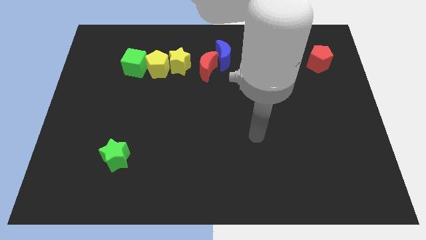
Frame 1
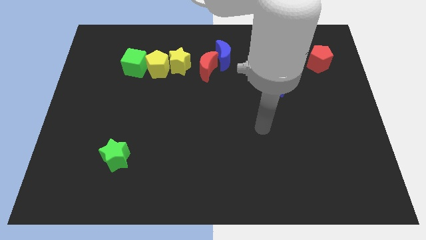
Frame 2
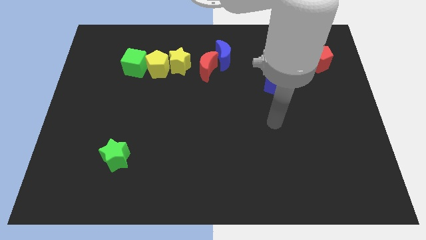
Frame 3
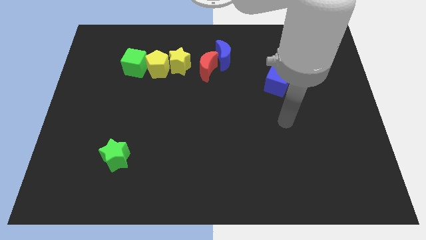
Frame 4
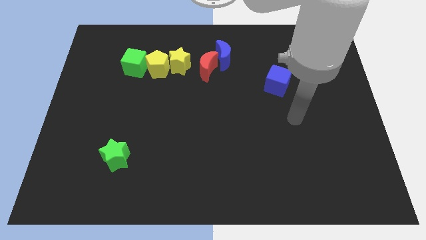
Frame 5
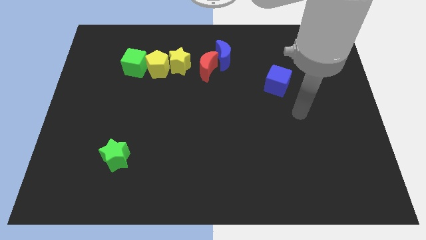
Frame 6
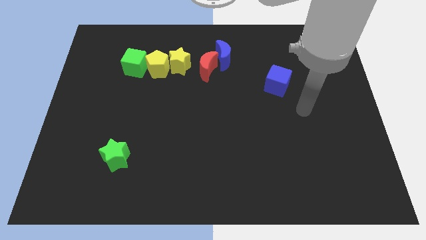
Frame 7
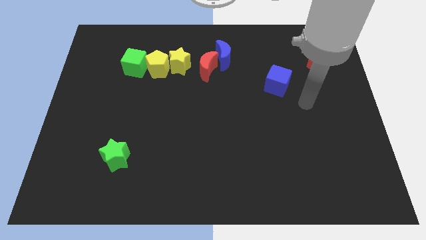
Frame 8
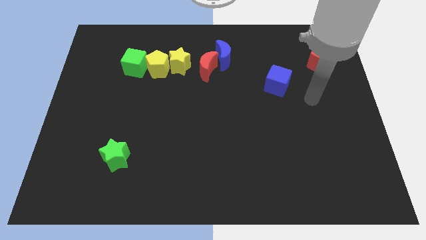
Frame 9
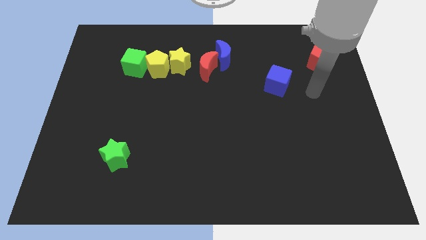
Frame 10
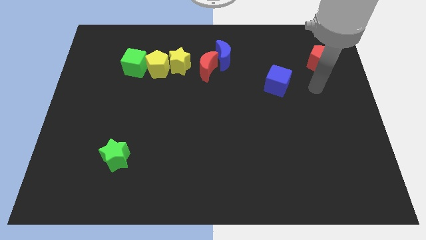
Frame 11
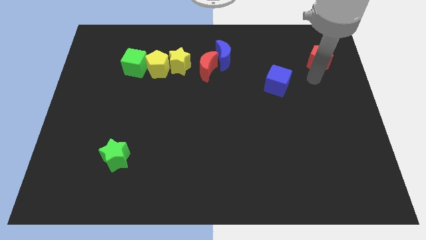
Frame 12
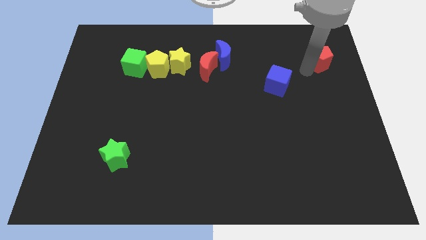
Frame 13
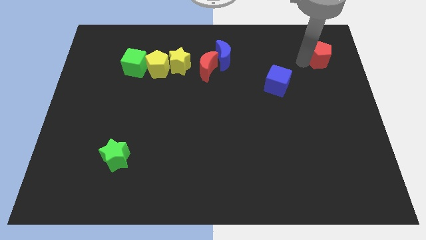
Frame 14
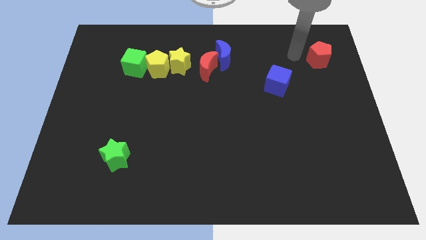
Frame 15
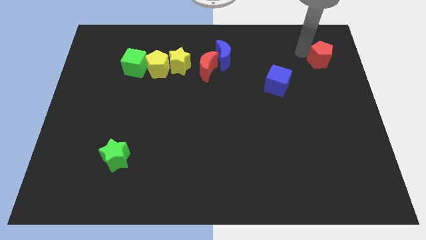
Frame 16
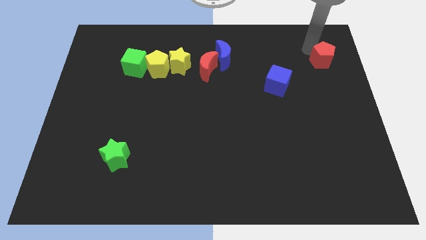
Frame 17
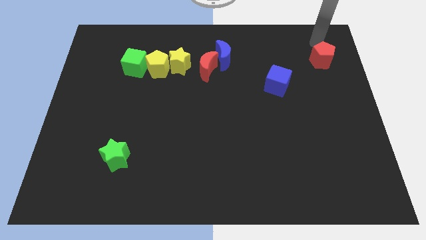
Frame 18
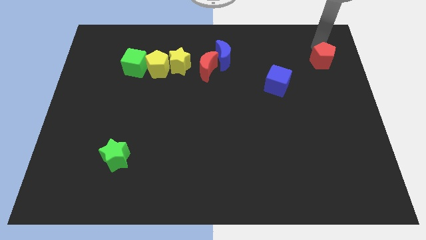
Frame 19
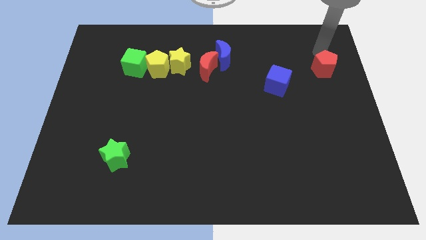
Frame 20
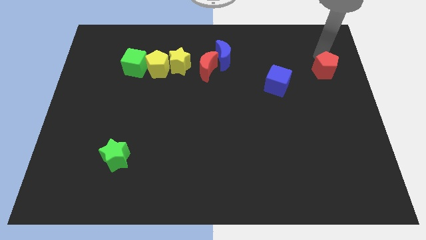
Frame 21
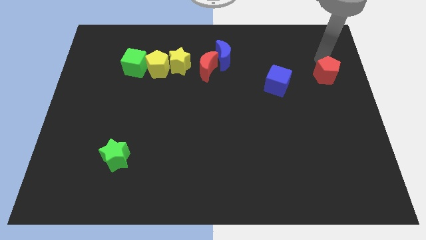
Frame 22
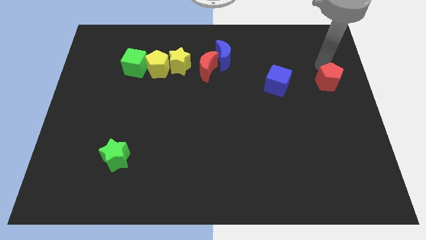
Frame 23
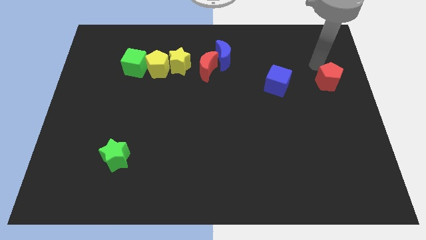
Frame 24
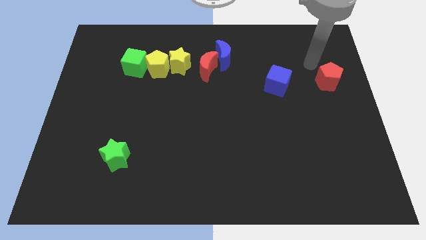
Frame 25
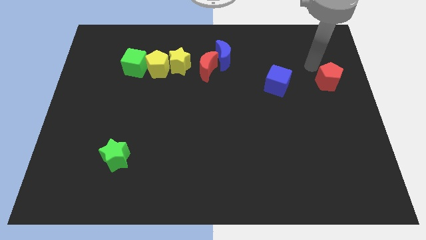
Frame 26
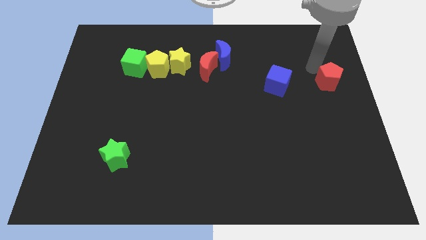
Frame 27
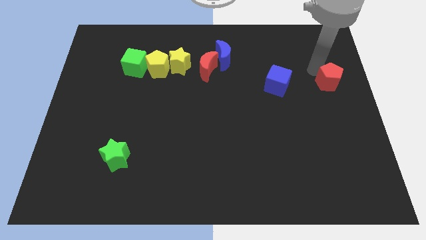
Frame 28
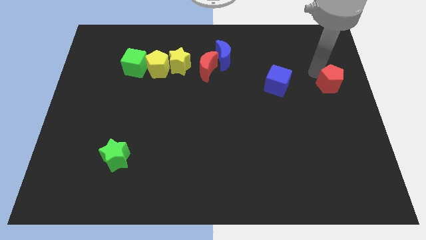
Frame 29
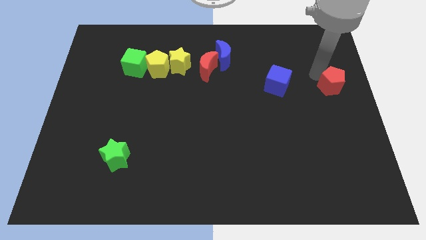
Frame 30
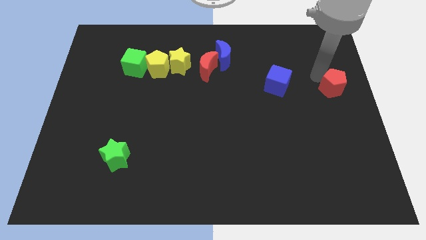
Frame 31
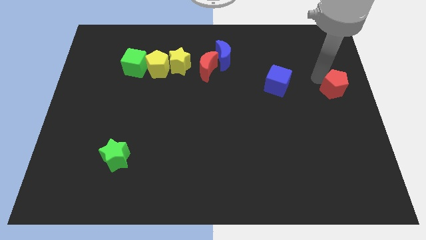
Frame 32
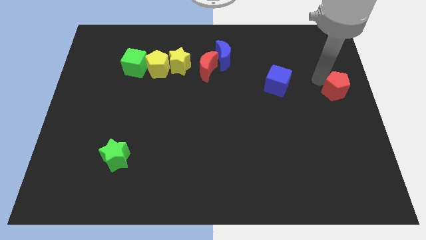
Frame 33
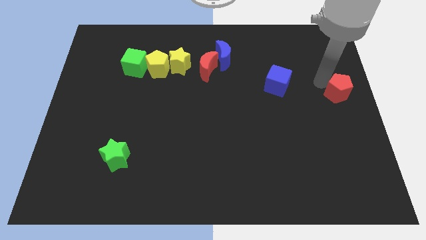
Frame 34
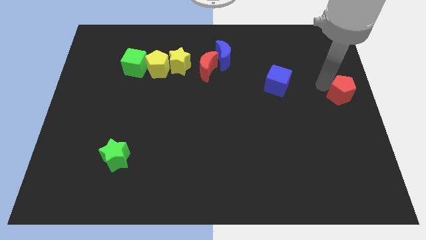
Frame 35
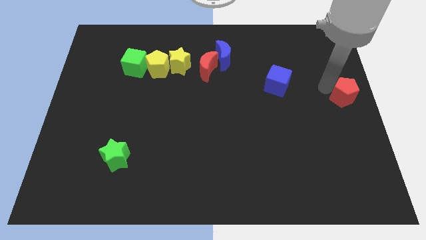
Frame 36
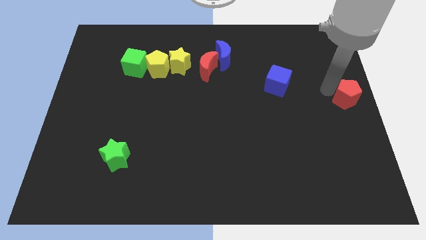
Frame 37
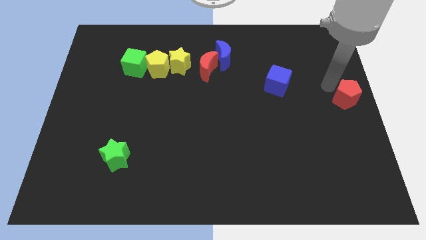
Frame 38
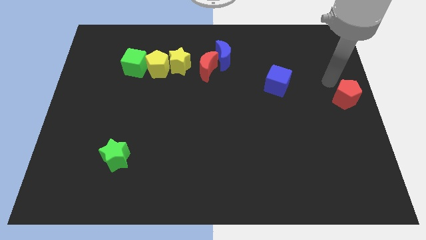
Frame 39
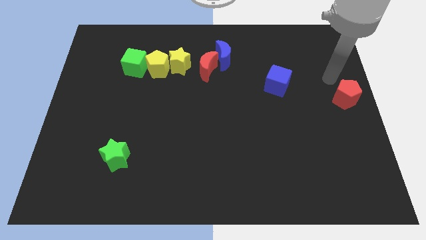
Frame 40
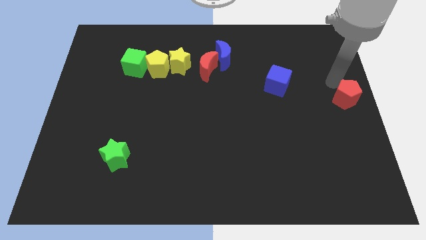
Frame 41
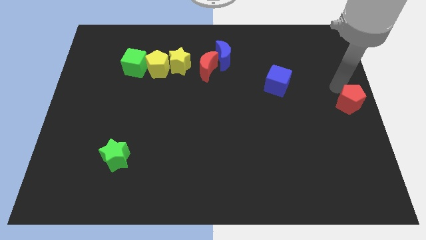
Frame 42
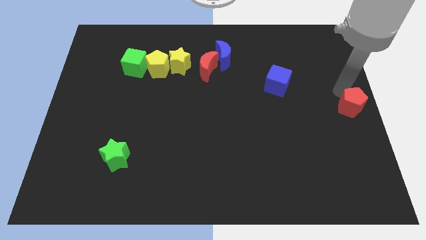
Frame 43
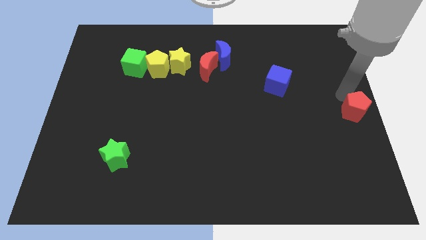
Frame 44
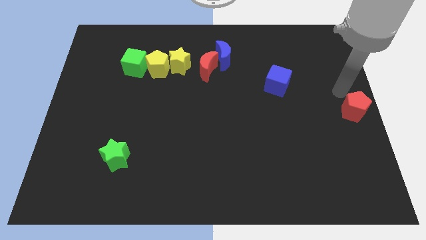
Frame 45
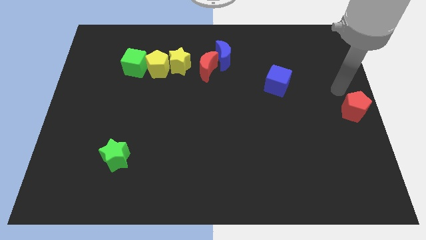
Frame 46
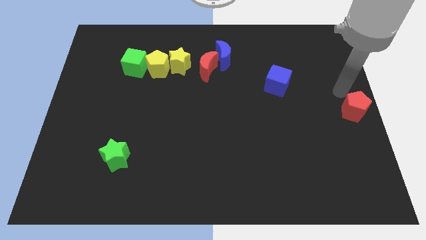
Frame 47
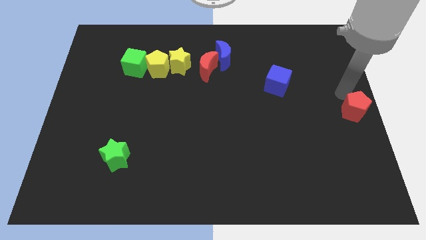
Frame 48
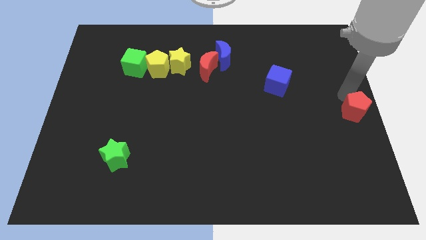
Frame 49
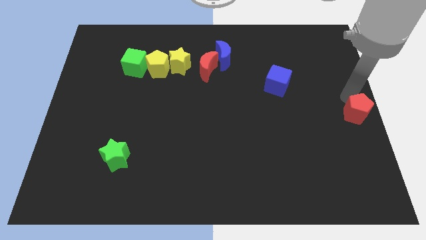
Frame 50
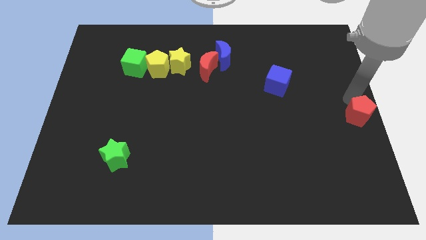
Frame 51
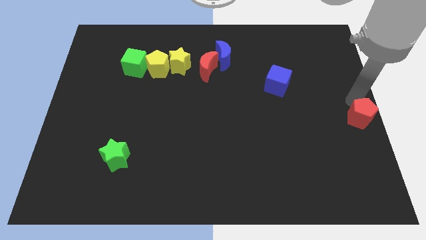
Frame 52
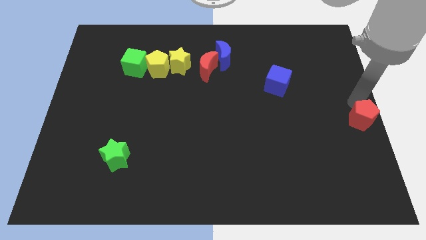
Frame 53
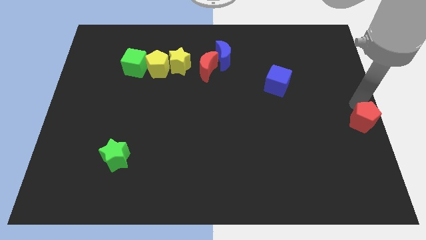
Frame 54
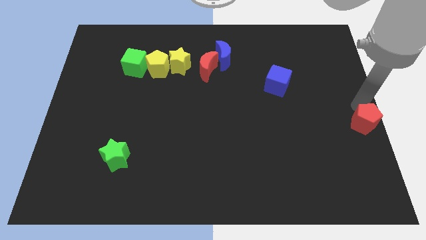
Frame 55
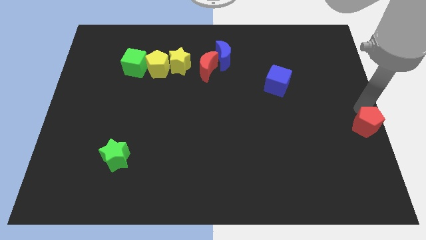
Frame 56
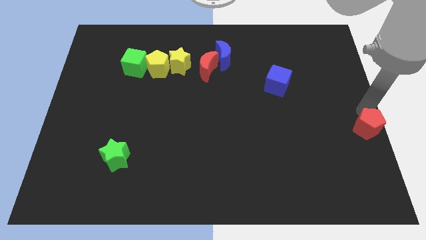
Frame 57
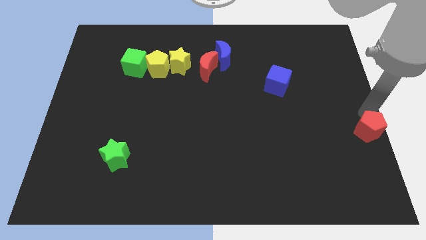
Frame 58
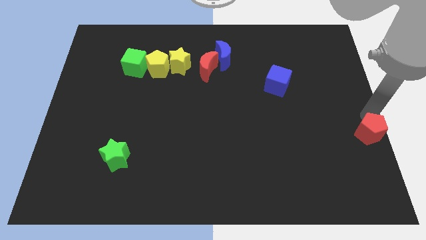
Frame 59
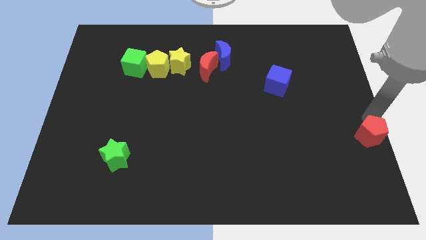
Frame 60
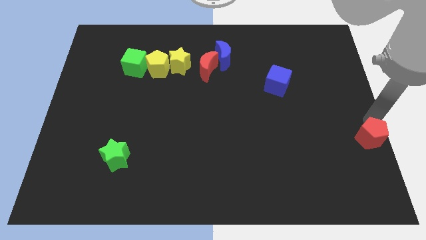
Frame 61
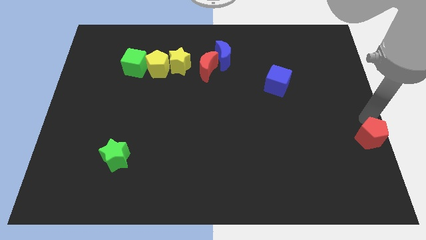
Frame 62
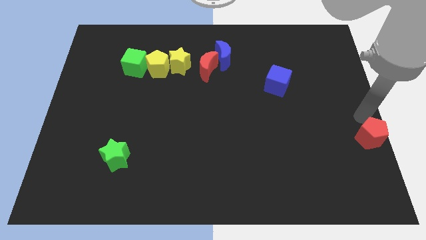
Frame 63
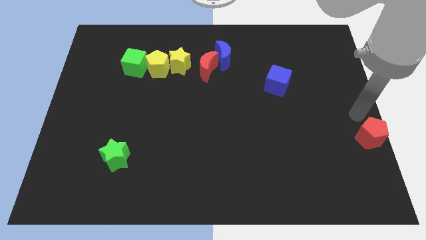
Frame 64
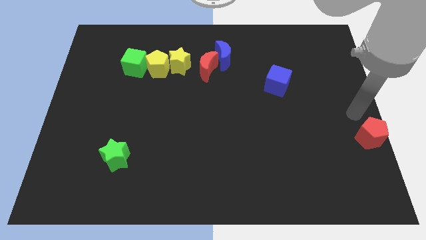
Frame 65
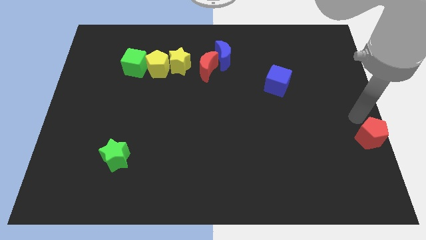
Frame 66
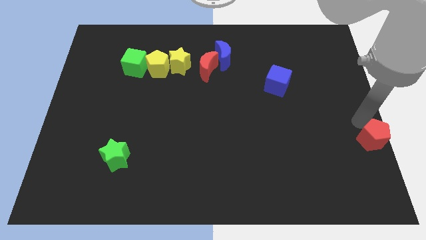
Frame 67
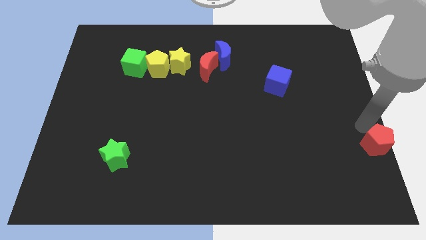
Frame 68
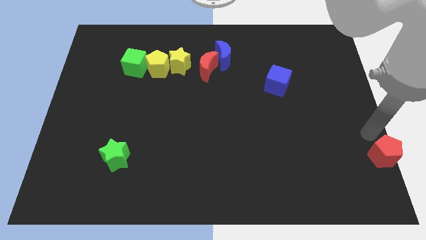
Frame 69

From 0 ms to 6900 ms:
push the red pentagon to the bottom right of the board
